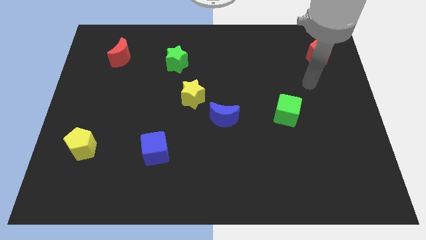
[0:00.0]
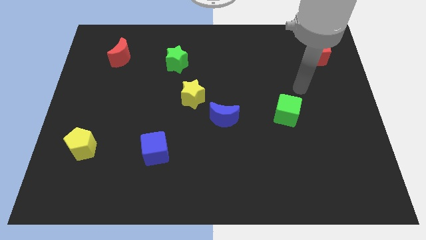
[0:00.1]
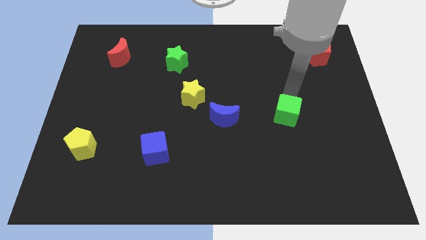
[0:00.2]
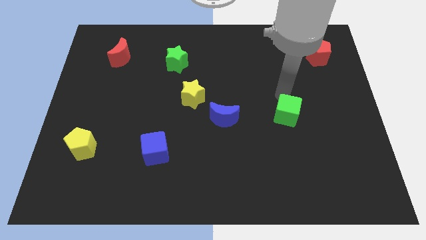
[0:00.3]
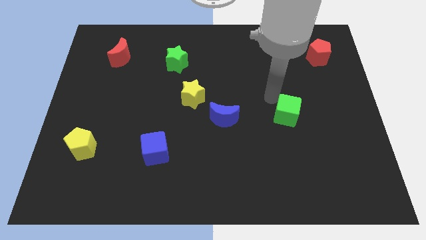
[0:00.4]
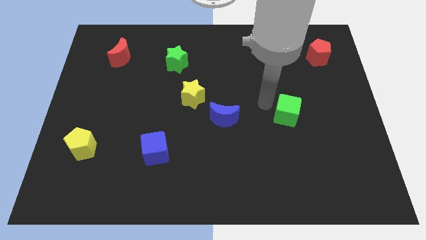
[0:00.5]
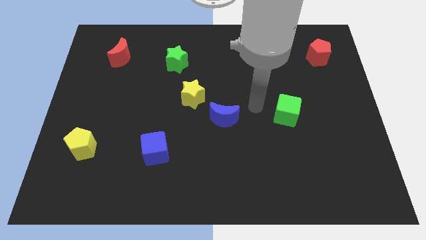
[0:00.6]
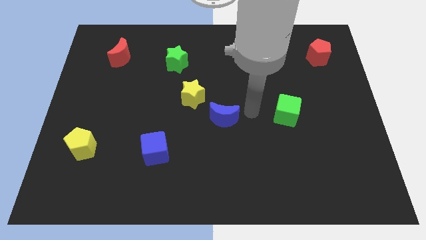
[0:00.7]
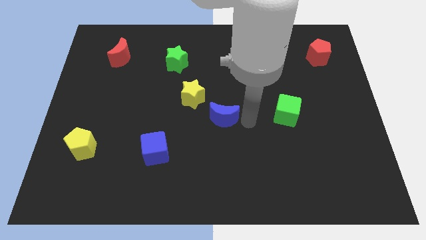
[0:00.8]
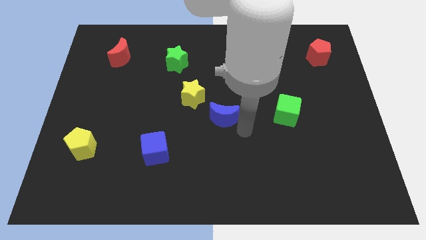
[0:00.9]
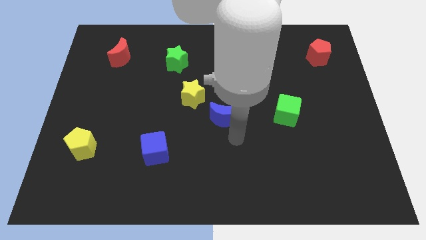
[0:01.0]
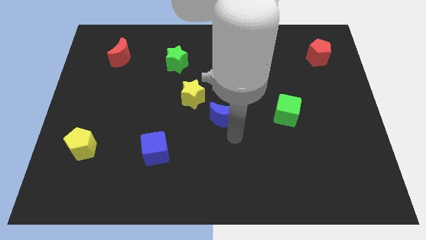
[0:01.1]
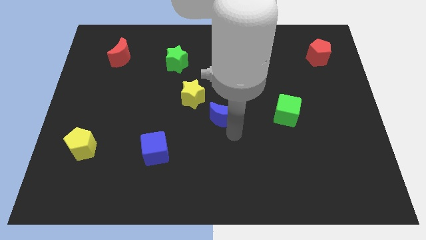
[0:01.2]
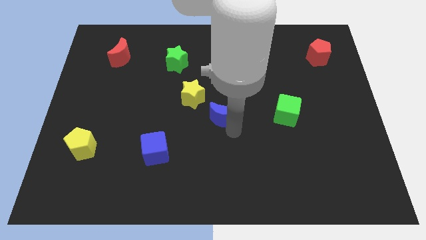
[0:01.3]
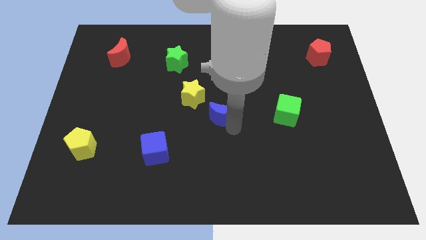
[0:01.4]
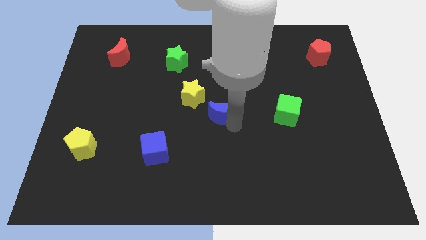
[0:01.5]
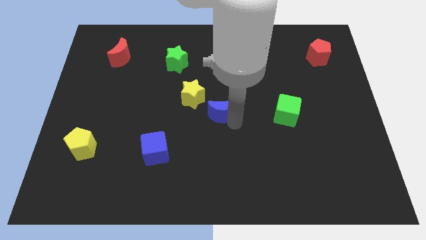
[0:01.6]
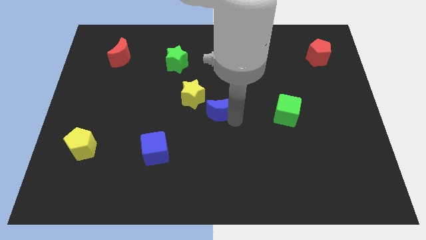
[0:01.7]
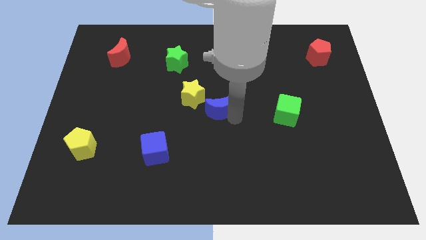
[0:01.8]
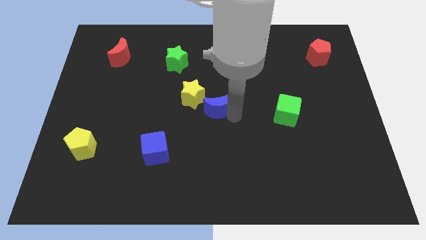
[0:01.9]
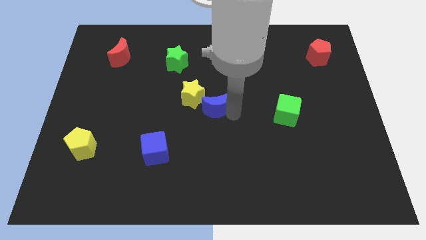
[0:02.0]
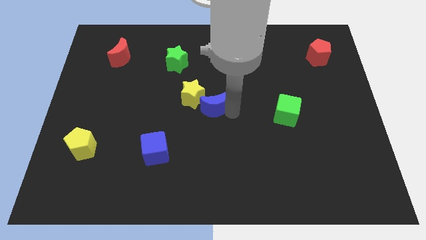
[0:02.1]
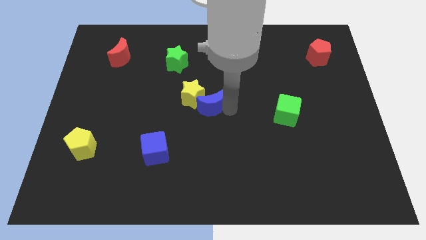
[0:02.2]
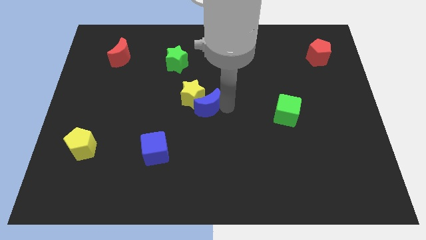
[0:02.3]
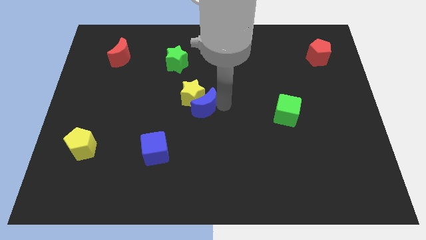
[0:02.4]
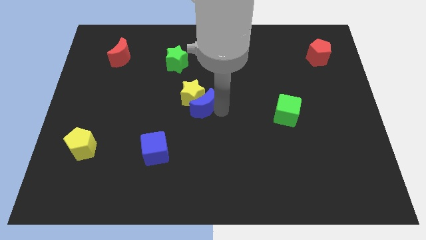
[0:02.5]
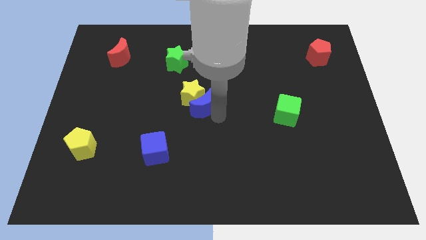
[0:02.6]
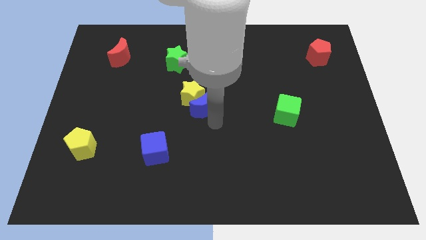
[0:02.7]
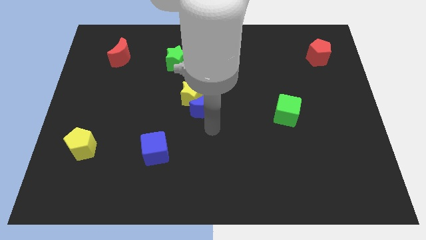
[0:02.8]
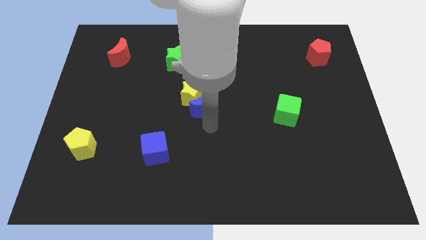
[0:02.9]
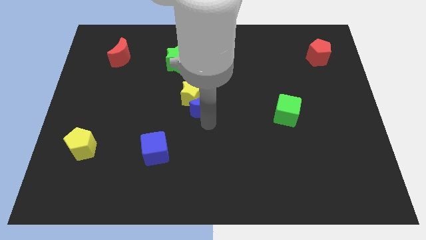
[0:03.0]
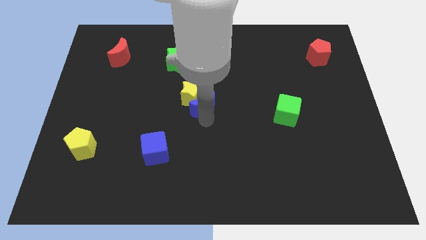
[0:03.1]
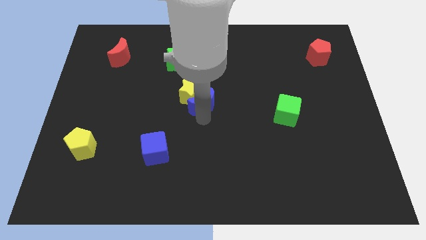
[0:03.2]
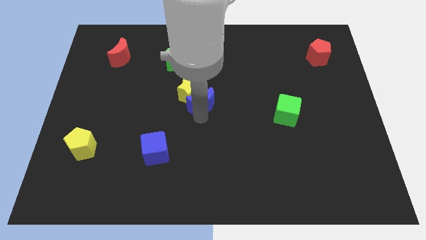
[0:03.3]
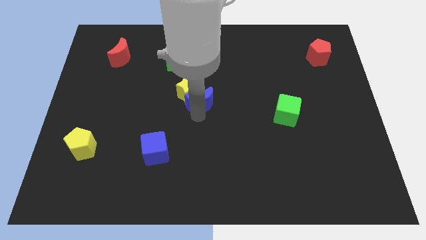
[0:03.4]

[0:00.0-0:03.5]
slightly slide the blue moon diagonally upwards and left

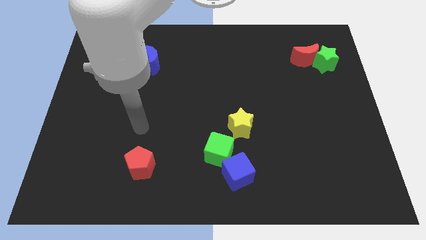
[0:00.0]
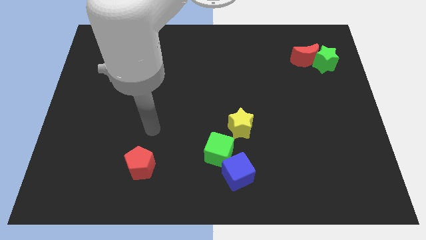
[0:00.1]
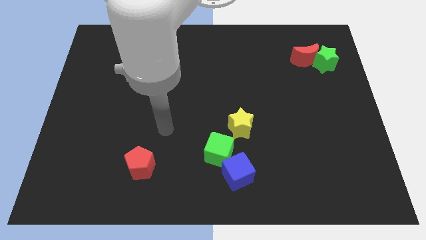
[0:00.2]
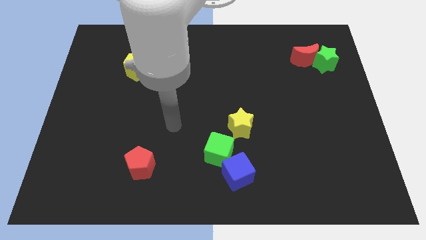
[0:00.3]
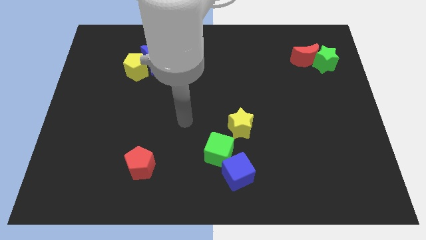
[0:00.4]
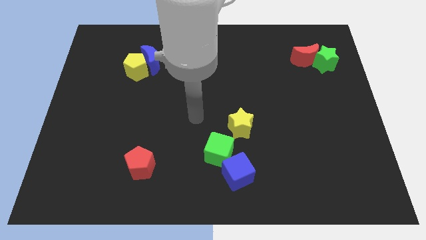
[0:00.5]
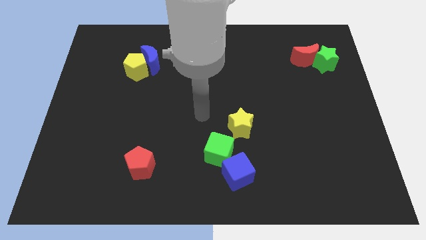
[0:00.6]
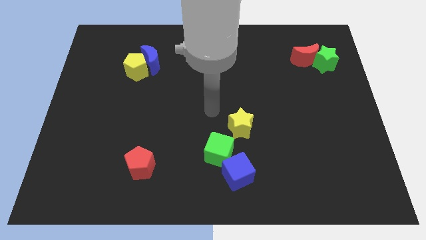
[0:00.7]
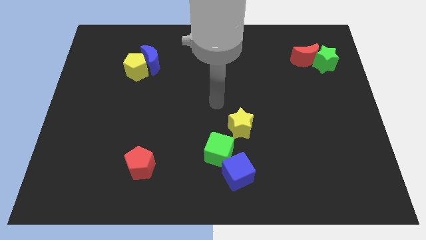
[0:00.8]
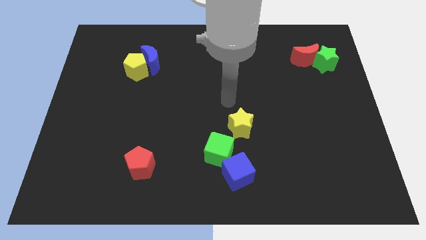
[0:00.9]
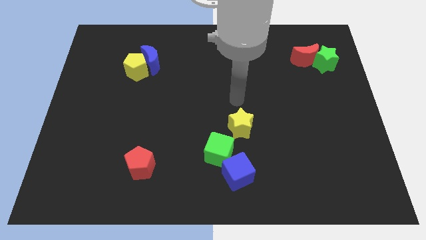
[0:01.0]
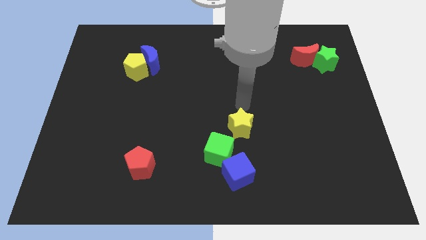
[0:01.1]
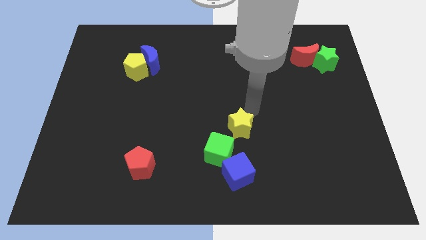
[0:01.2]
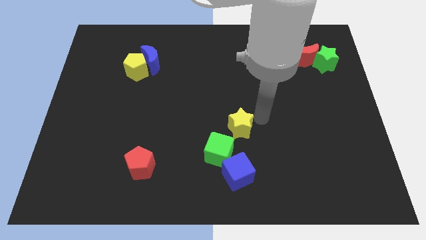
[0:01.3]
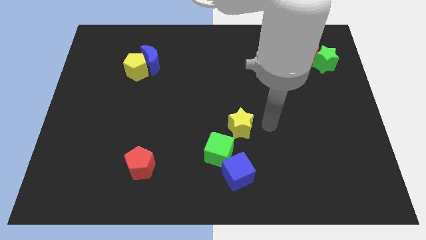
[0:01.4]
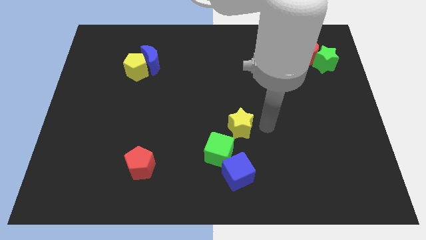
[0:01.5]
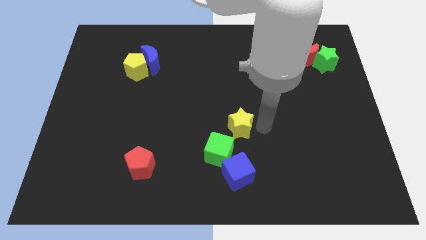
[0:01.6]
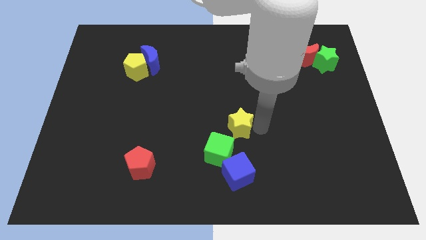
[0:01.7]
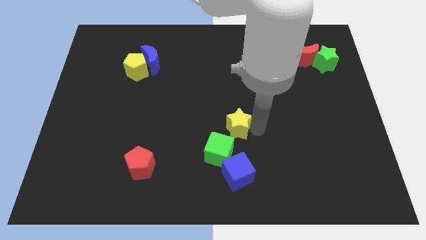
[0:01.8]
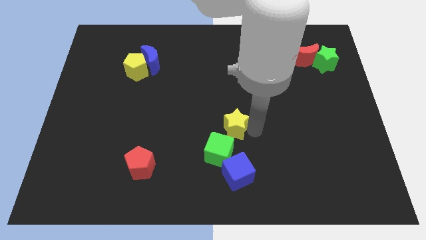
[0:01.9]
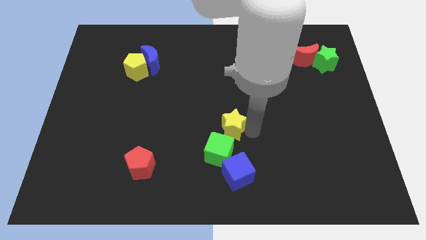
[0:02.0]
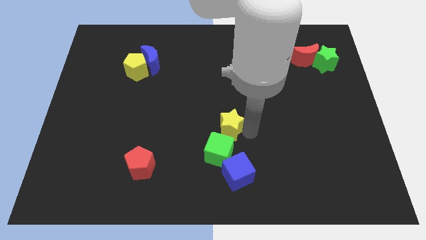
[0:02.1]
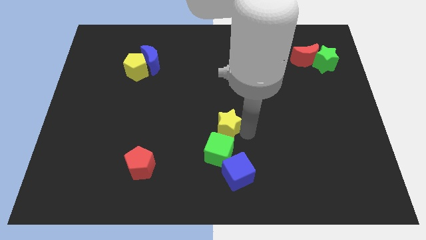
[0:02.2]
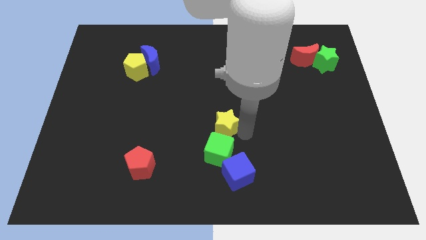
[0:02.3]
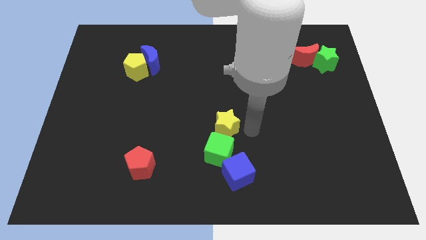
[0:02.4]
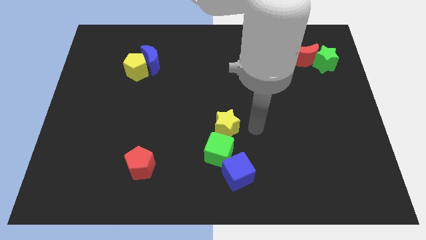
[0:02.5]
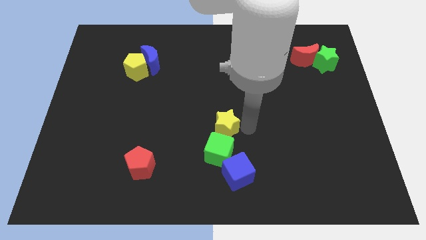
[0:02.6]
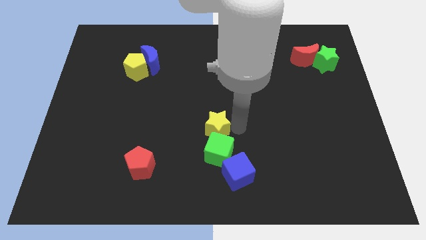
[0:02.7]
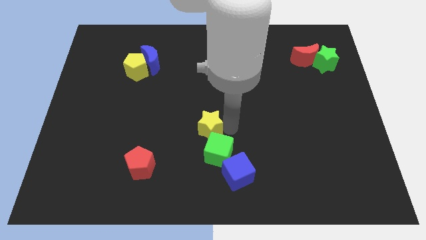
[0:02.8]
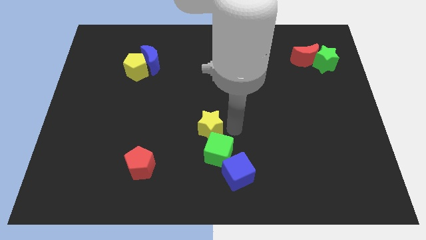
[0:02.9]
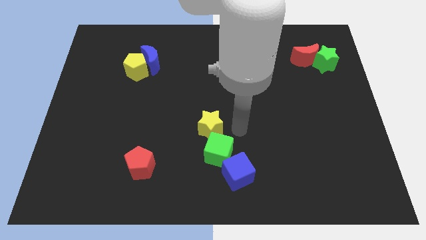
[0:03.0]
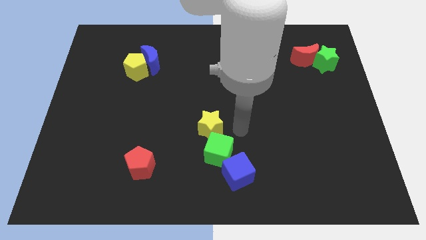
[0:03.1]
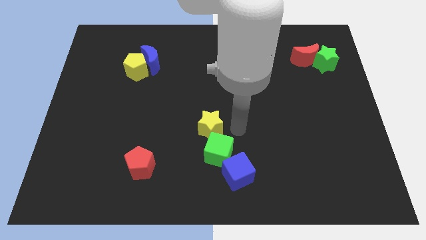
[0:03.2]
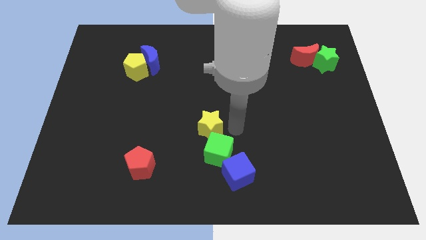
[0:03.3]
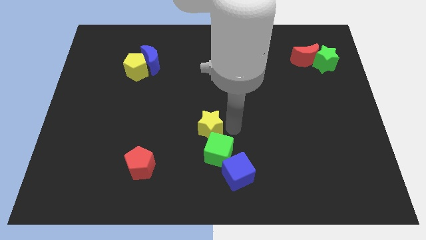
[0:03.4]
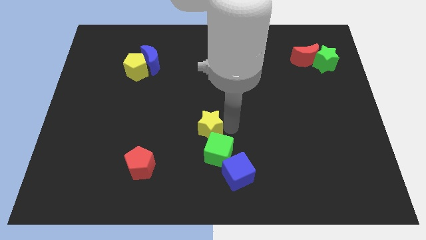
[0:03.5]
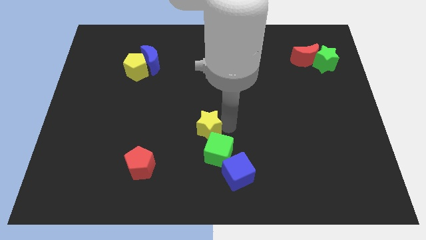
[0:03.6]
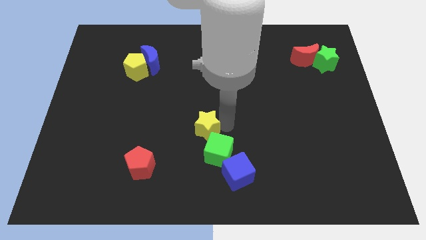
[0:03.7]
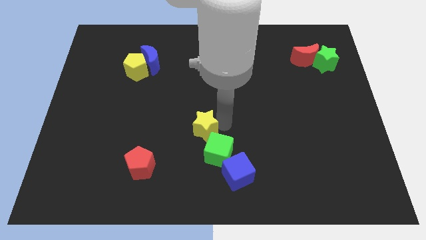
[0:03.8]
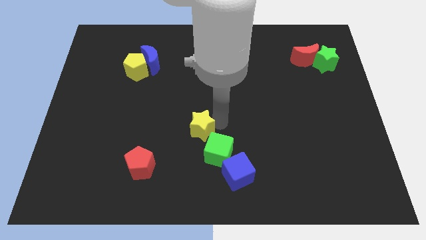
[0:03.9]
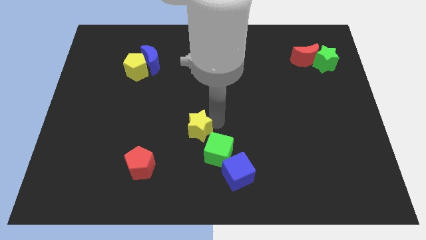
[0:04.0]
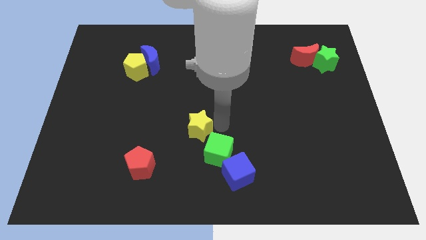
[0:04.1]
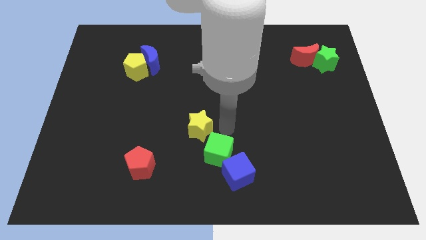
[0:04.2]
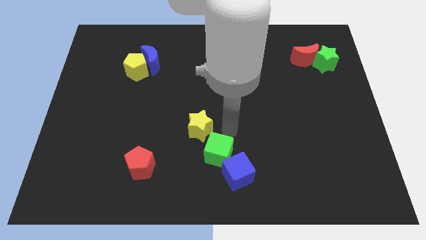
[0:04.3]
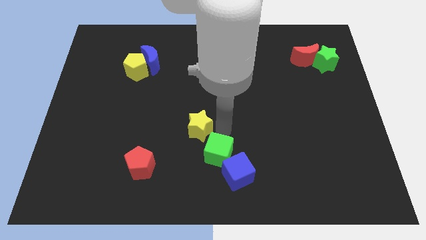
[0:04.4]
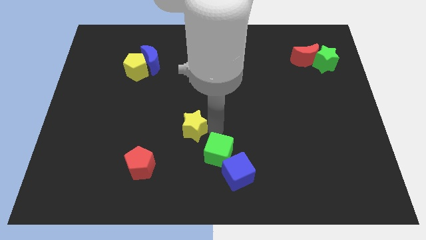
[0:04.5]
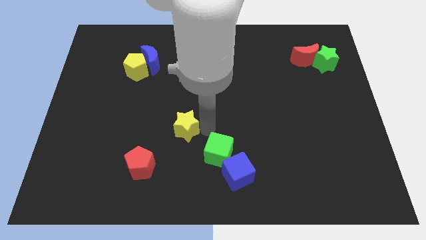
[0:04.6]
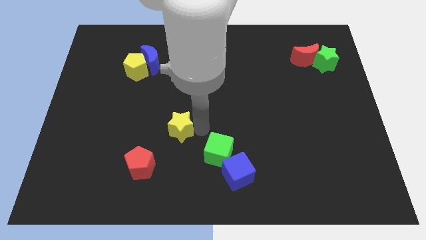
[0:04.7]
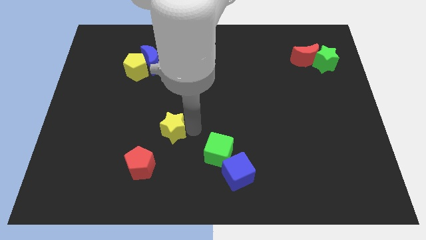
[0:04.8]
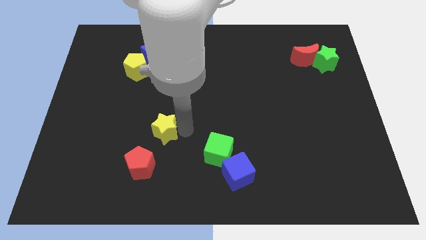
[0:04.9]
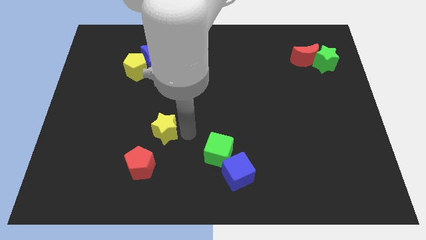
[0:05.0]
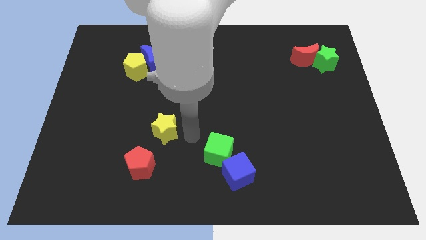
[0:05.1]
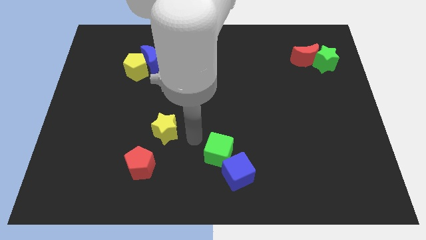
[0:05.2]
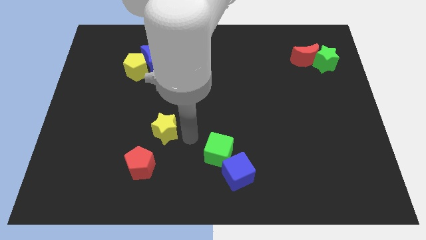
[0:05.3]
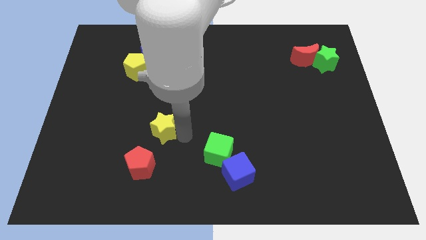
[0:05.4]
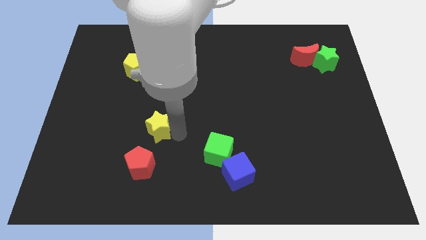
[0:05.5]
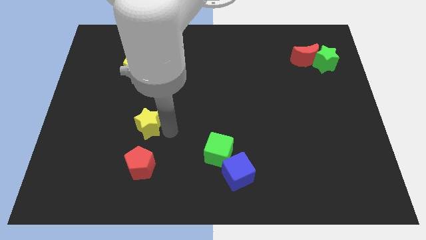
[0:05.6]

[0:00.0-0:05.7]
slide the yellow star to the left
